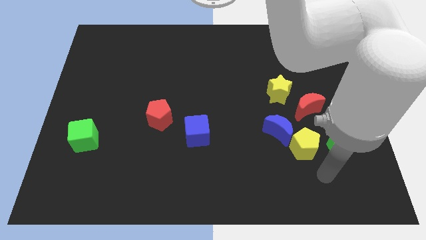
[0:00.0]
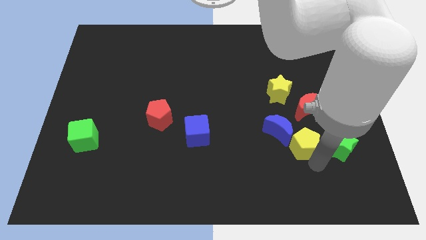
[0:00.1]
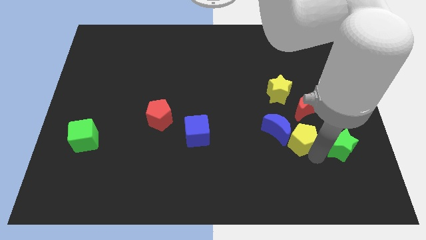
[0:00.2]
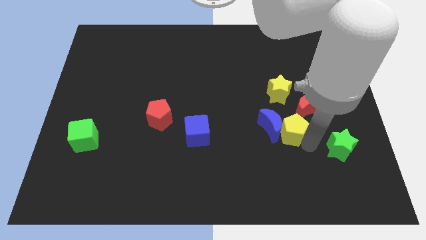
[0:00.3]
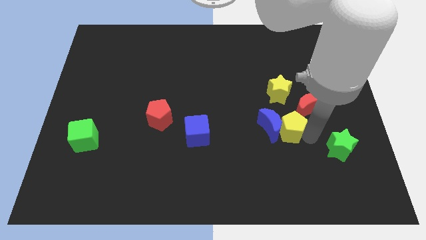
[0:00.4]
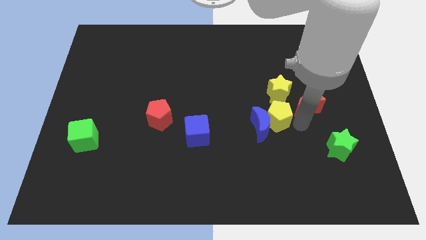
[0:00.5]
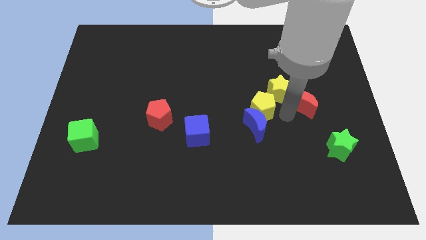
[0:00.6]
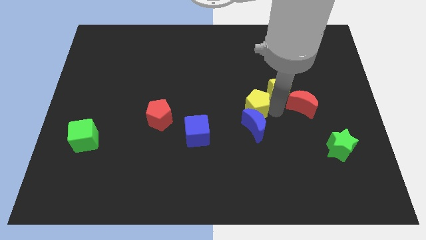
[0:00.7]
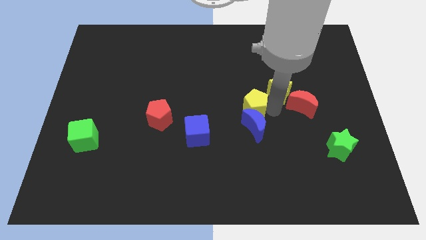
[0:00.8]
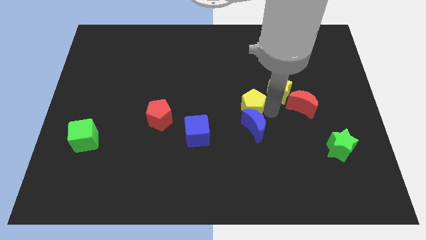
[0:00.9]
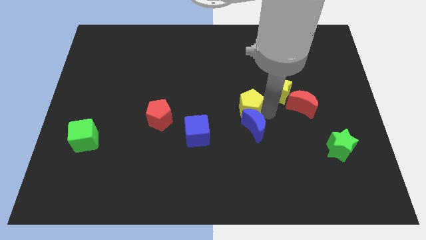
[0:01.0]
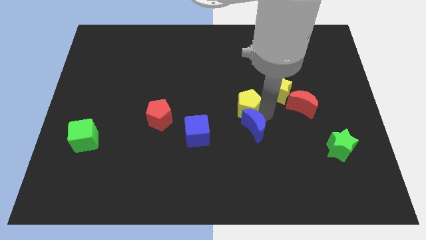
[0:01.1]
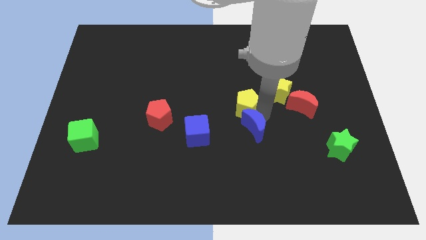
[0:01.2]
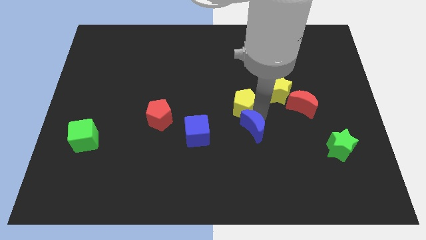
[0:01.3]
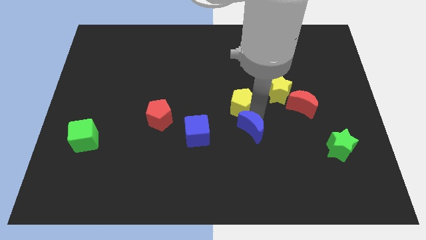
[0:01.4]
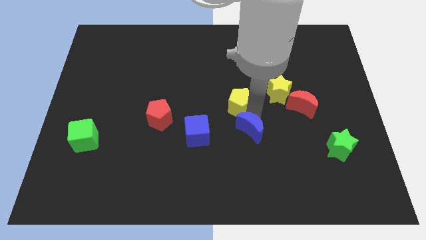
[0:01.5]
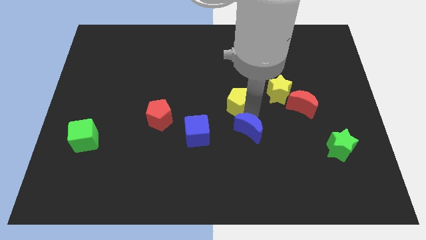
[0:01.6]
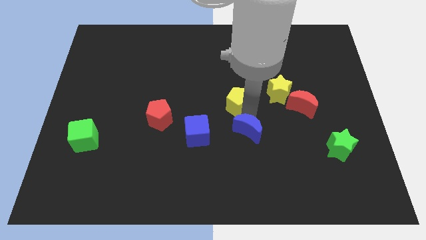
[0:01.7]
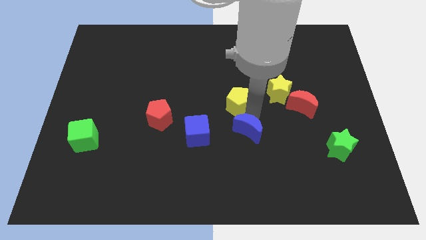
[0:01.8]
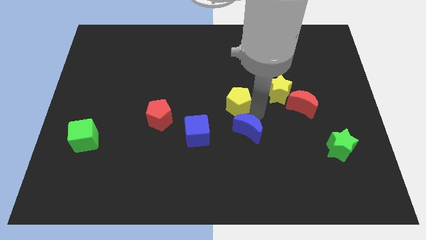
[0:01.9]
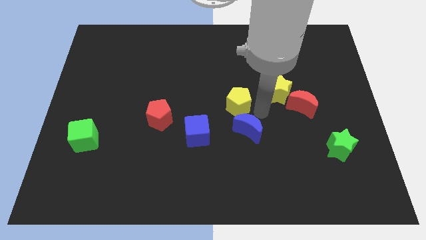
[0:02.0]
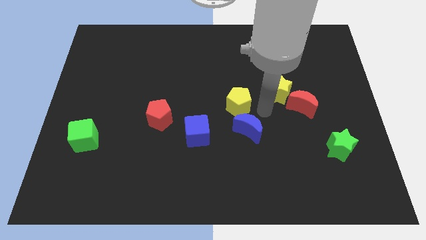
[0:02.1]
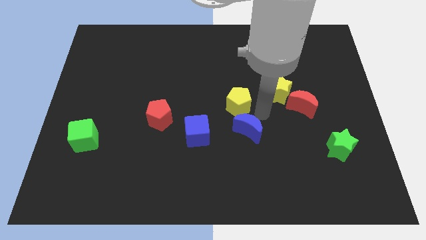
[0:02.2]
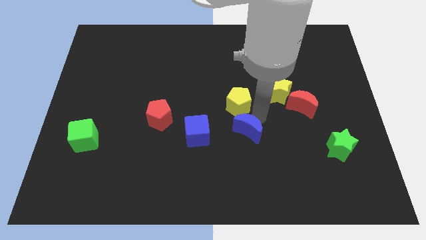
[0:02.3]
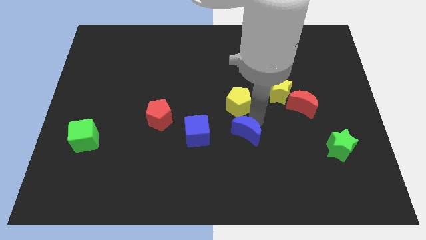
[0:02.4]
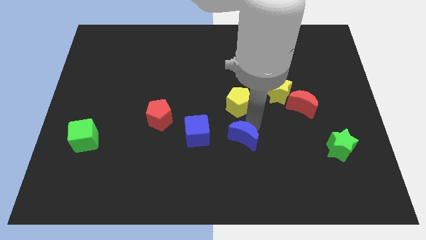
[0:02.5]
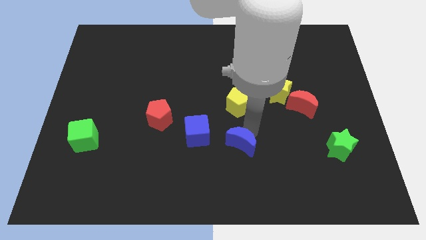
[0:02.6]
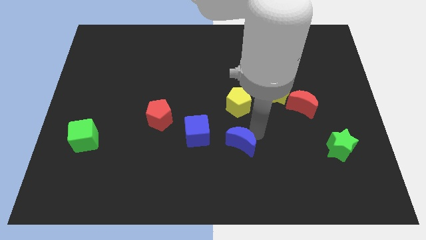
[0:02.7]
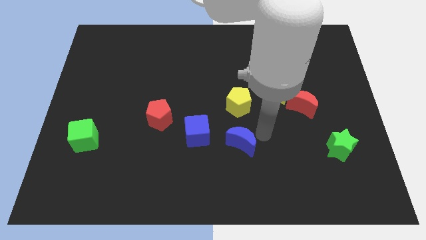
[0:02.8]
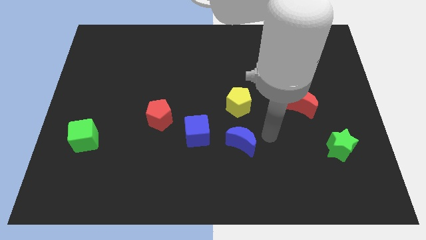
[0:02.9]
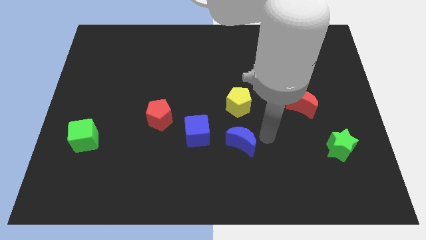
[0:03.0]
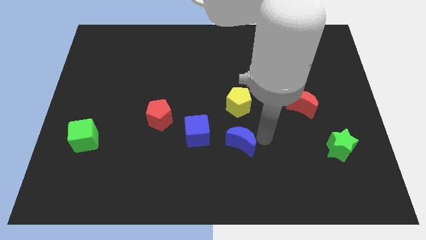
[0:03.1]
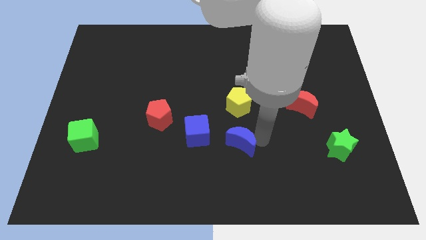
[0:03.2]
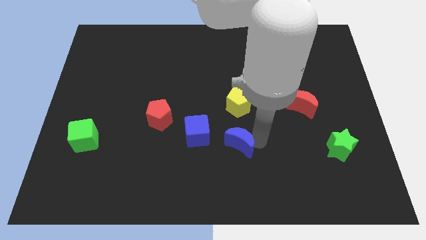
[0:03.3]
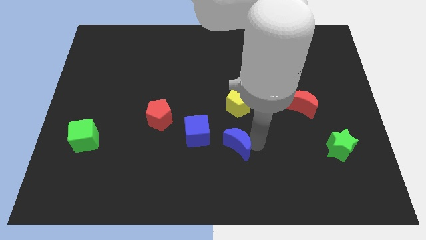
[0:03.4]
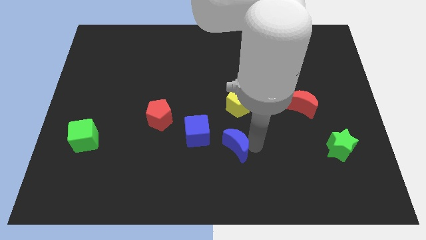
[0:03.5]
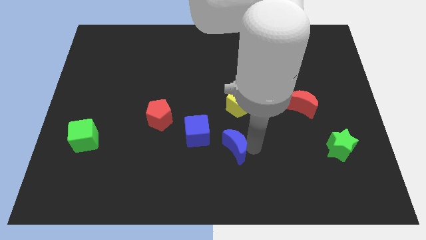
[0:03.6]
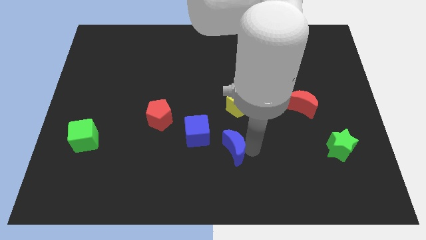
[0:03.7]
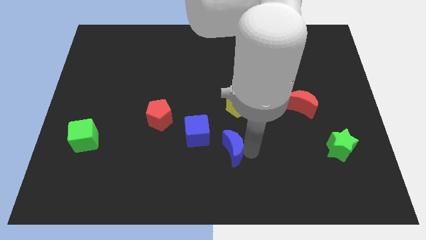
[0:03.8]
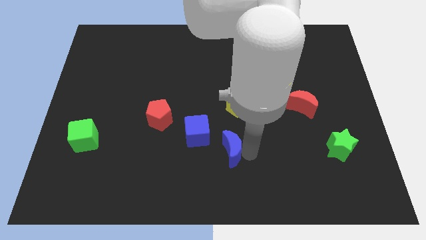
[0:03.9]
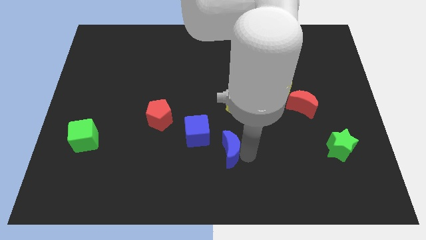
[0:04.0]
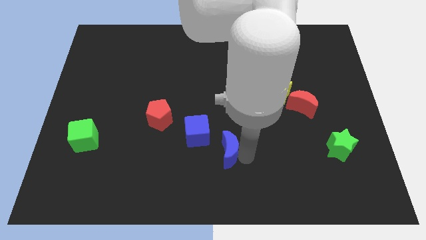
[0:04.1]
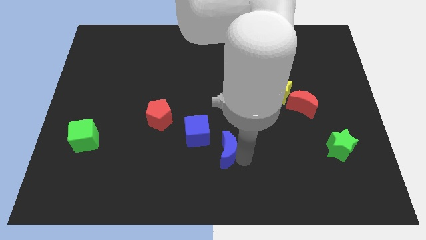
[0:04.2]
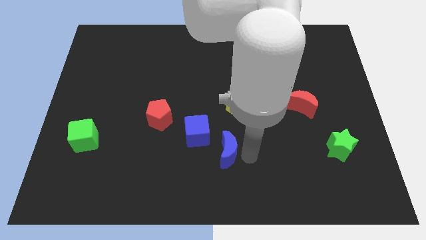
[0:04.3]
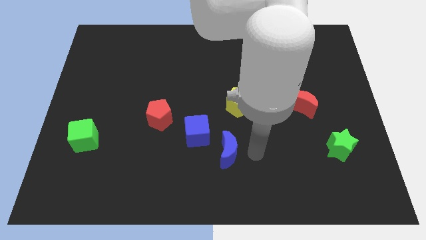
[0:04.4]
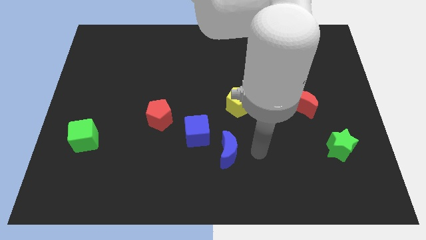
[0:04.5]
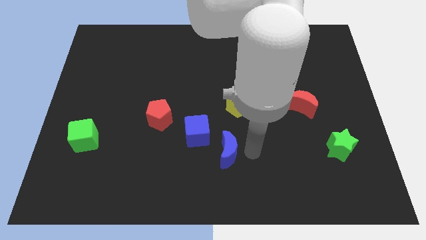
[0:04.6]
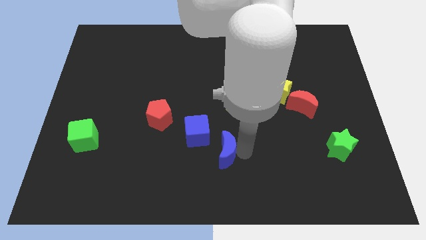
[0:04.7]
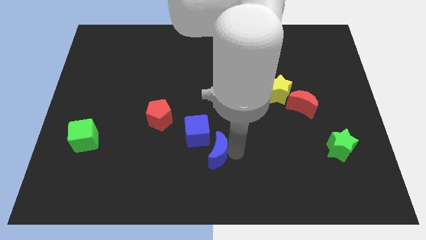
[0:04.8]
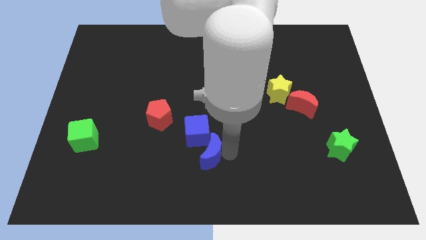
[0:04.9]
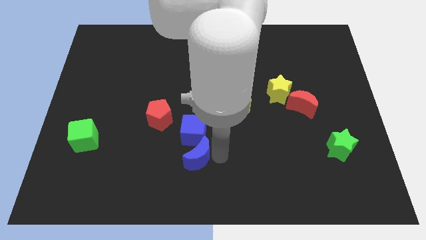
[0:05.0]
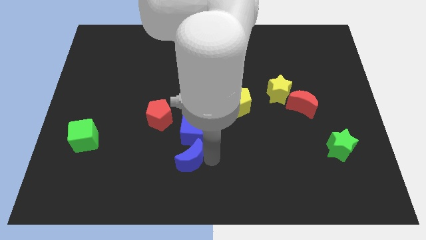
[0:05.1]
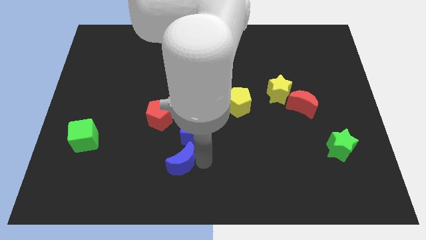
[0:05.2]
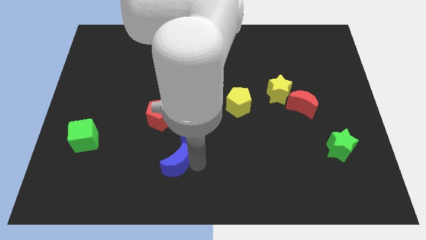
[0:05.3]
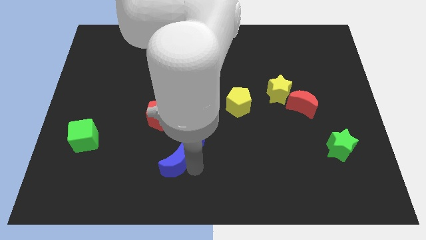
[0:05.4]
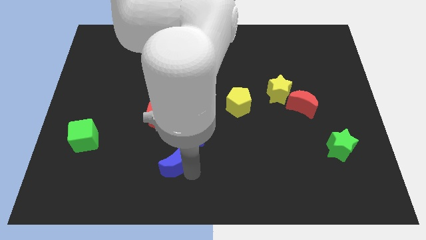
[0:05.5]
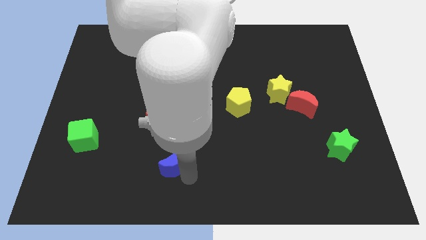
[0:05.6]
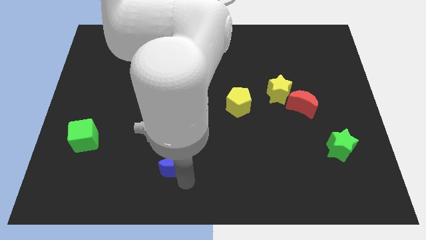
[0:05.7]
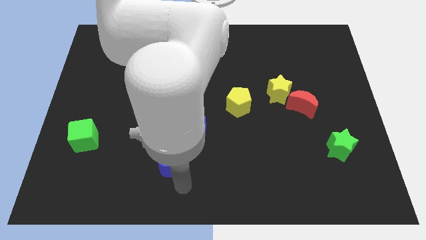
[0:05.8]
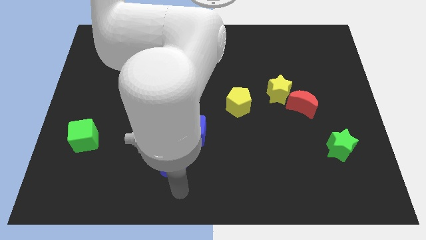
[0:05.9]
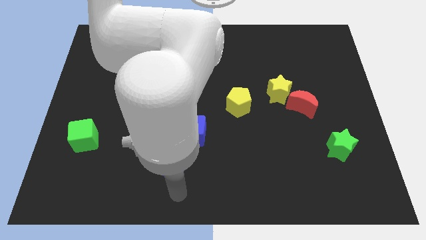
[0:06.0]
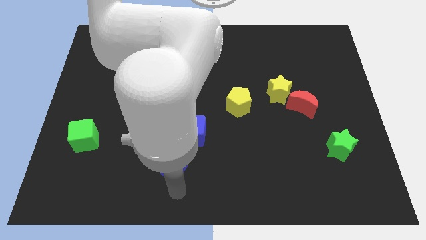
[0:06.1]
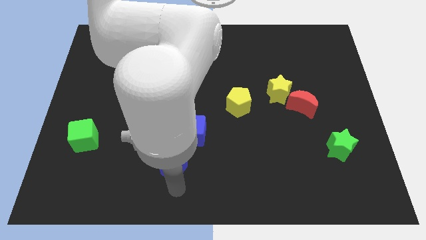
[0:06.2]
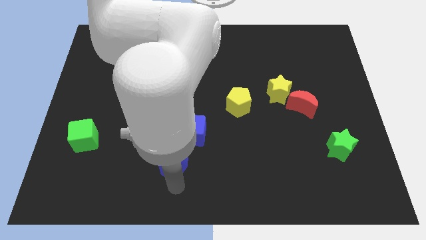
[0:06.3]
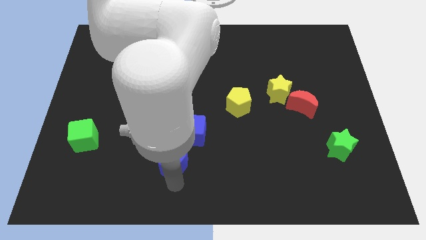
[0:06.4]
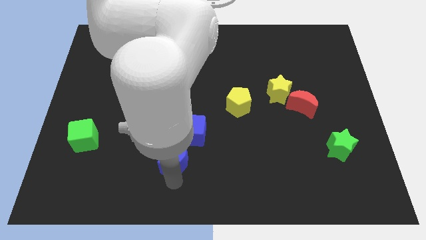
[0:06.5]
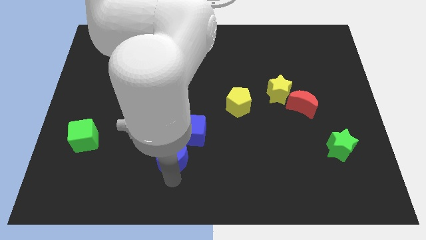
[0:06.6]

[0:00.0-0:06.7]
move the blue moon to the left

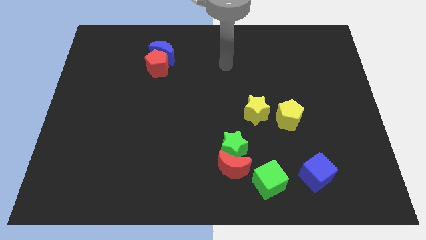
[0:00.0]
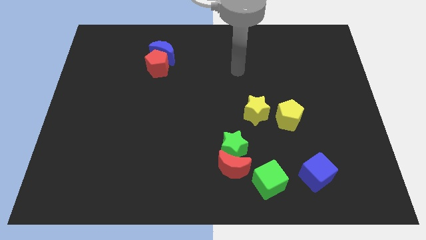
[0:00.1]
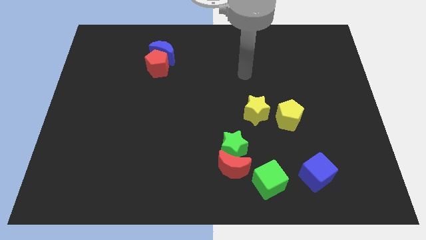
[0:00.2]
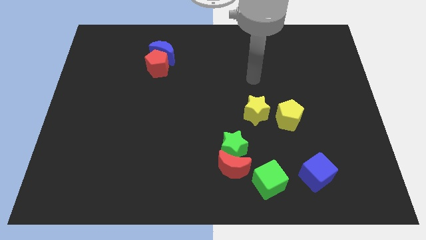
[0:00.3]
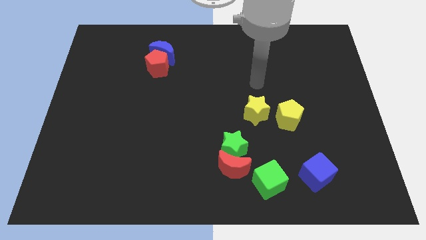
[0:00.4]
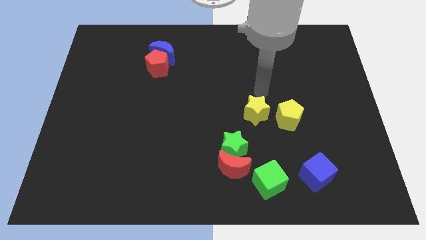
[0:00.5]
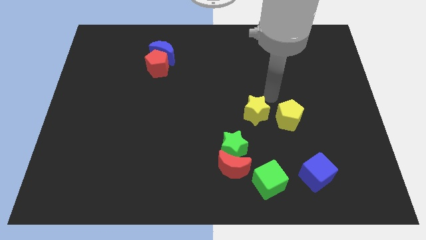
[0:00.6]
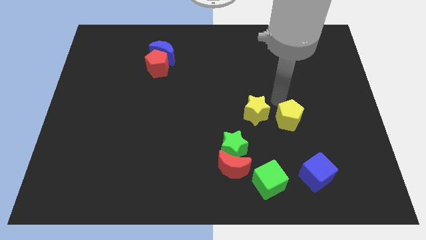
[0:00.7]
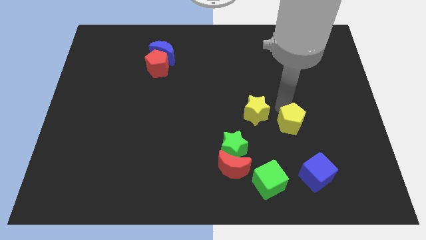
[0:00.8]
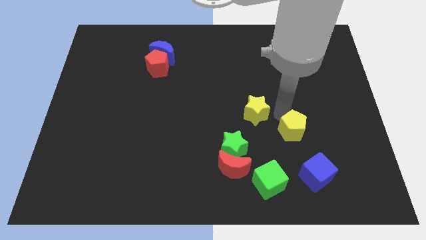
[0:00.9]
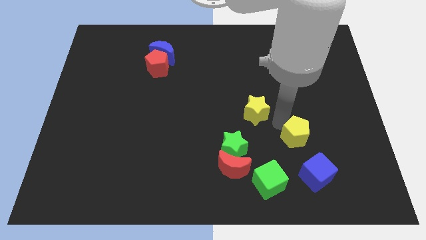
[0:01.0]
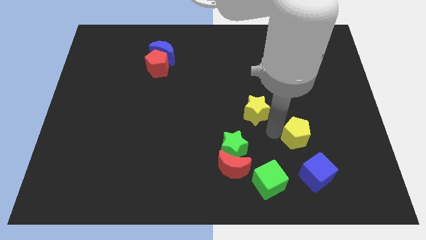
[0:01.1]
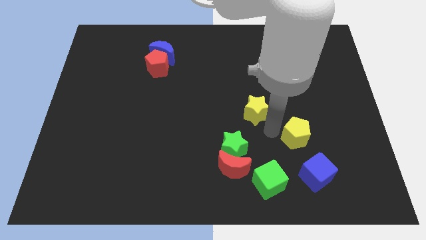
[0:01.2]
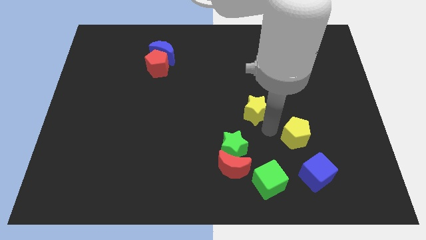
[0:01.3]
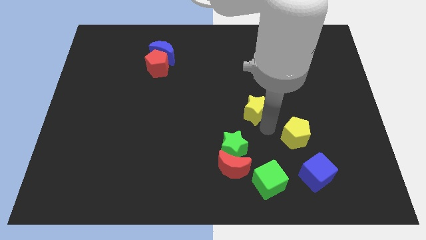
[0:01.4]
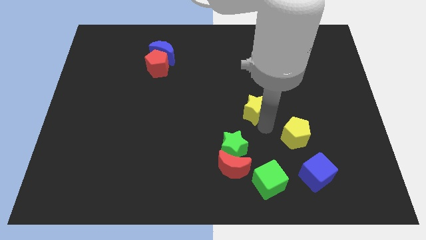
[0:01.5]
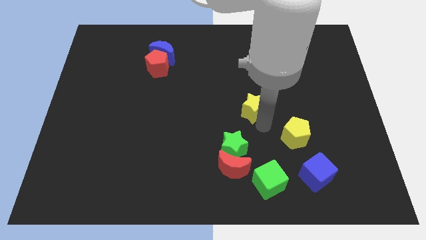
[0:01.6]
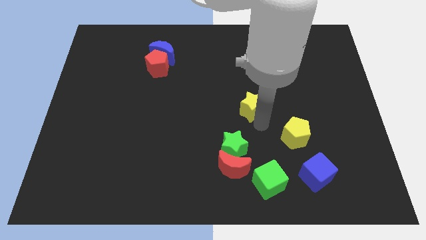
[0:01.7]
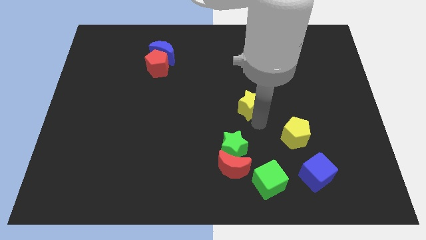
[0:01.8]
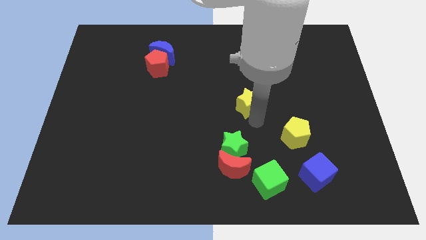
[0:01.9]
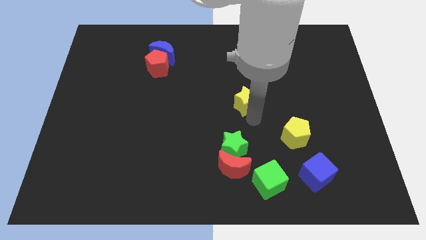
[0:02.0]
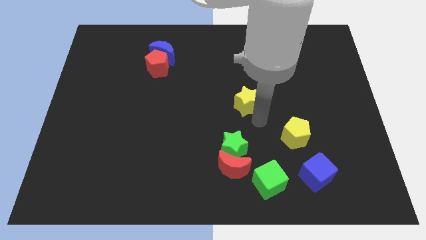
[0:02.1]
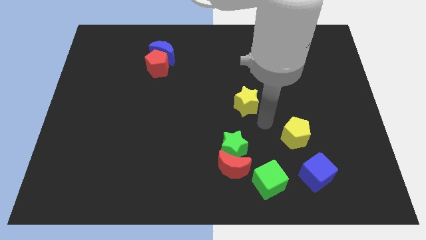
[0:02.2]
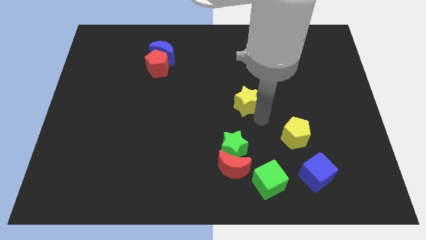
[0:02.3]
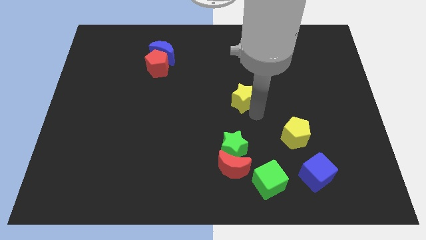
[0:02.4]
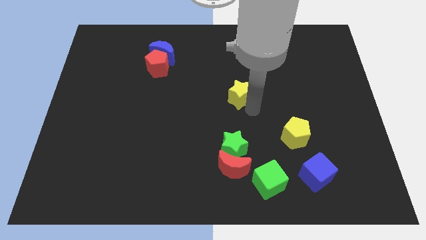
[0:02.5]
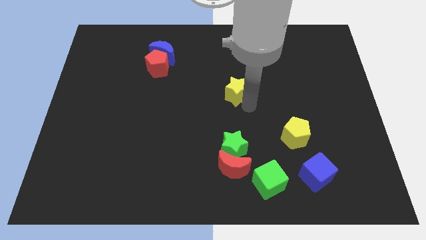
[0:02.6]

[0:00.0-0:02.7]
slide the yellow star slightly up and then to the left
